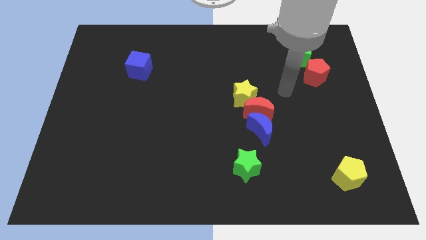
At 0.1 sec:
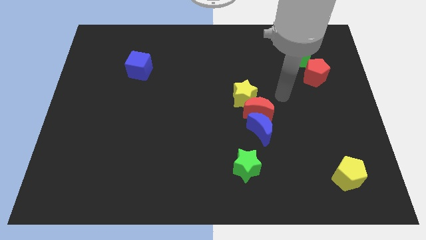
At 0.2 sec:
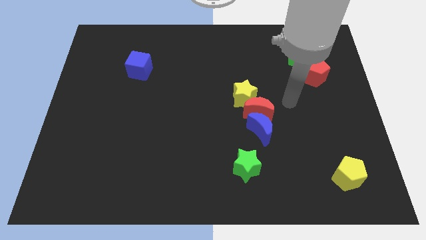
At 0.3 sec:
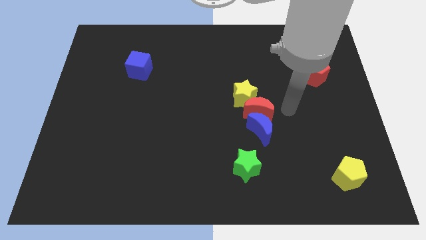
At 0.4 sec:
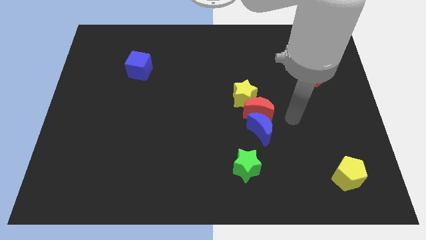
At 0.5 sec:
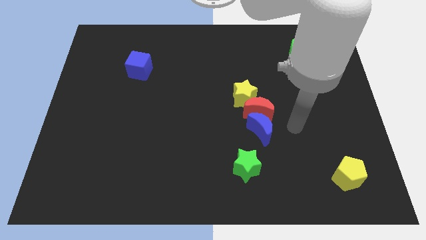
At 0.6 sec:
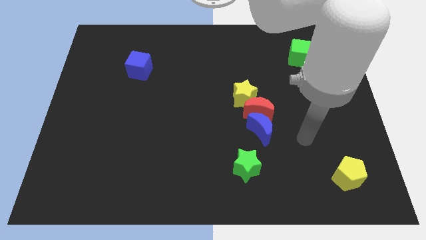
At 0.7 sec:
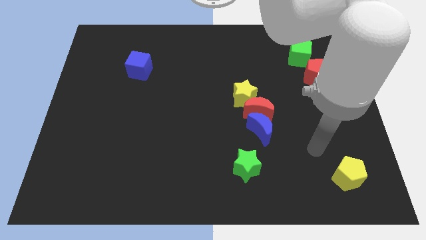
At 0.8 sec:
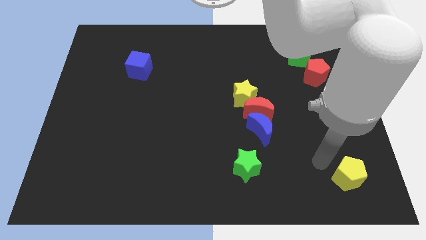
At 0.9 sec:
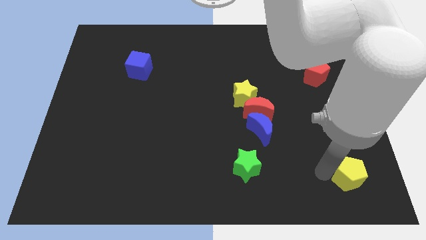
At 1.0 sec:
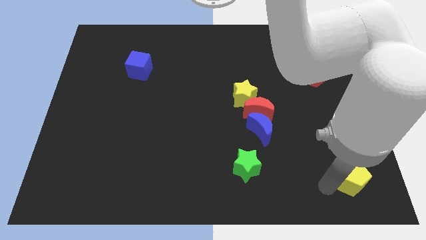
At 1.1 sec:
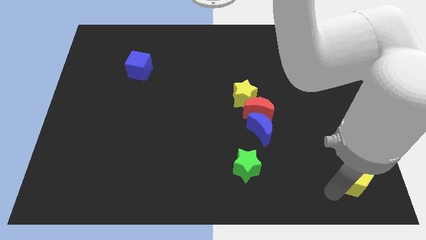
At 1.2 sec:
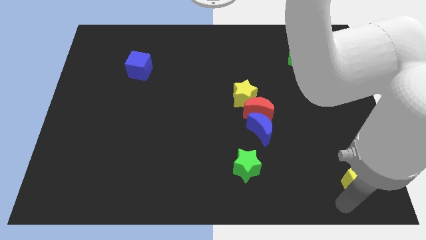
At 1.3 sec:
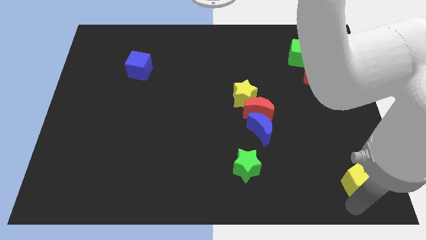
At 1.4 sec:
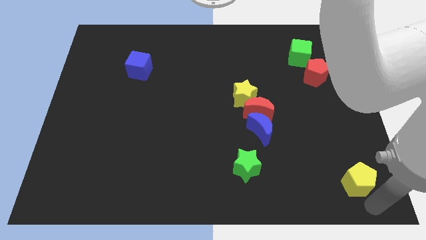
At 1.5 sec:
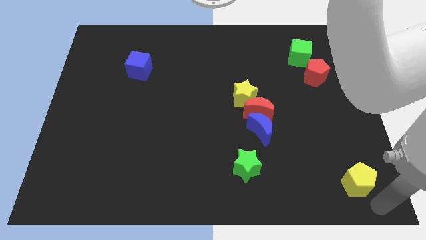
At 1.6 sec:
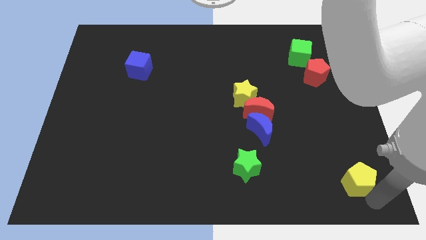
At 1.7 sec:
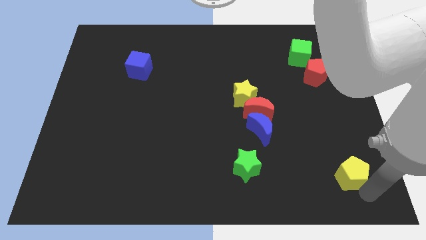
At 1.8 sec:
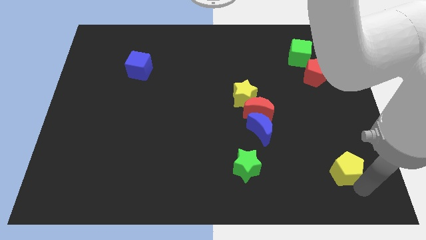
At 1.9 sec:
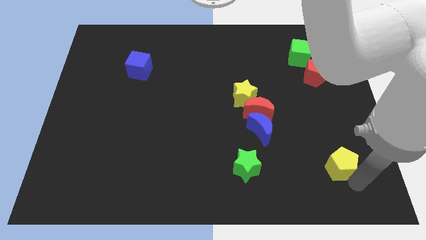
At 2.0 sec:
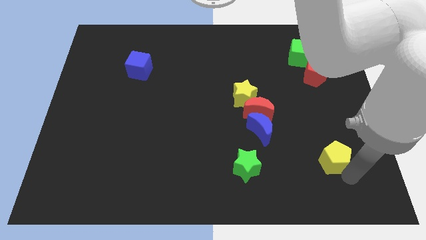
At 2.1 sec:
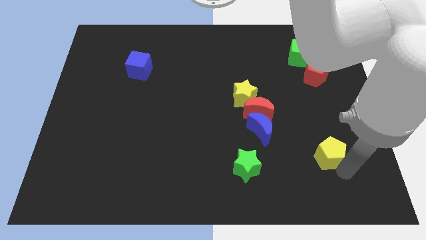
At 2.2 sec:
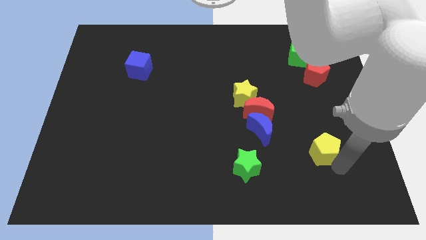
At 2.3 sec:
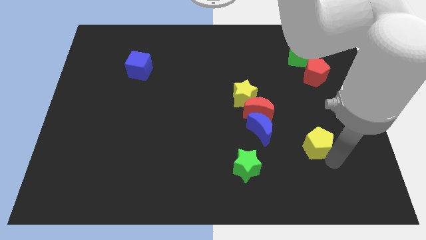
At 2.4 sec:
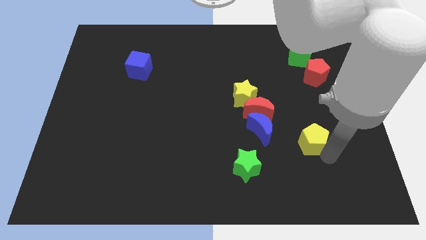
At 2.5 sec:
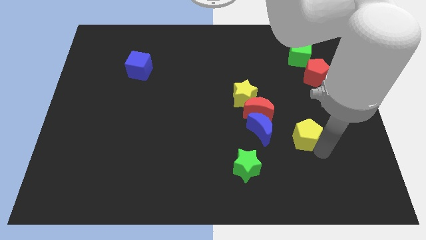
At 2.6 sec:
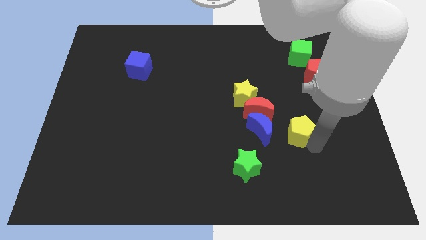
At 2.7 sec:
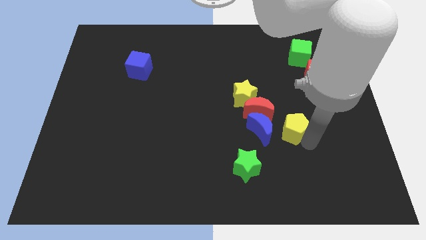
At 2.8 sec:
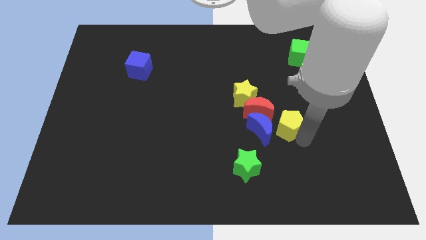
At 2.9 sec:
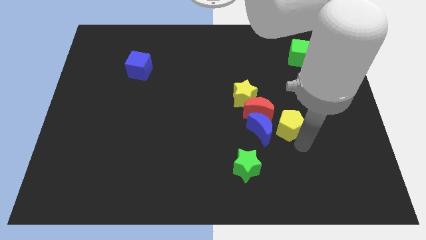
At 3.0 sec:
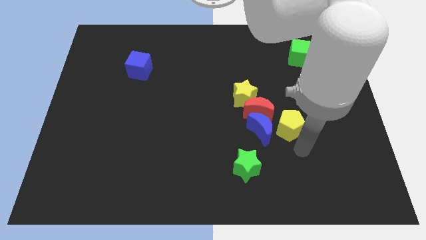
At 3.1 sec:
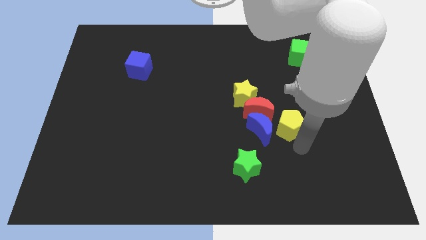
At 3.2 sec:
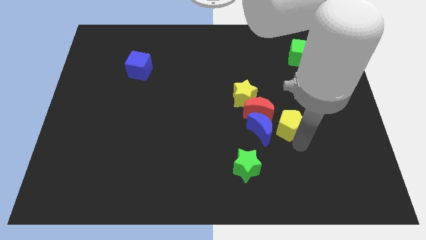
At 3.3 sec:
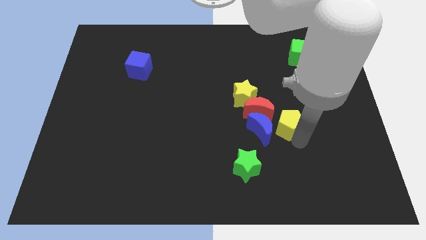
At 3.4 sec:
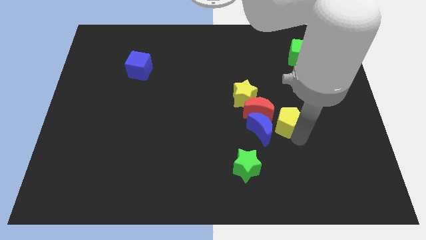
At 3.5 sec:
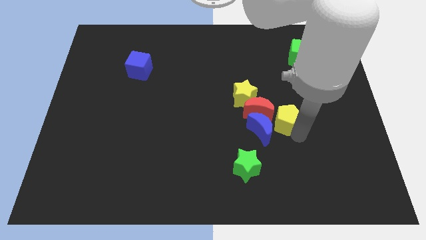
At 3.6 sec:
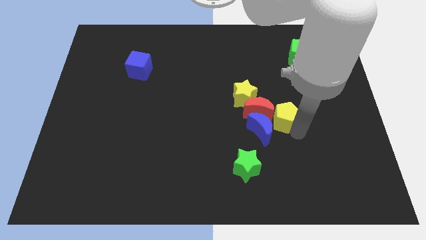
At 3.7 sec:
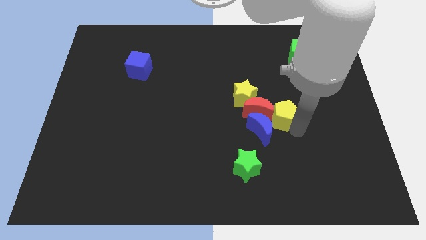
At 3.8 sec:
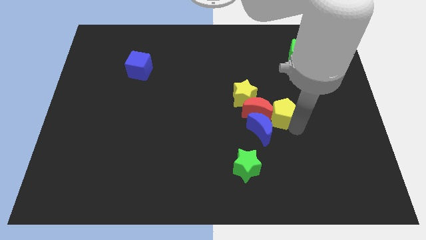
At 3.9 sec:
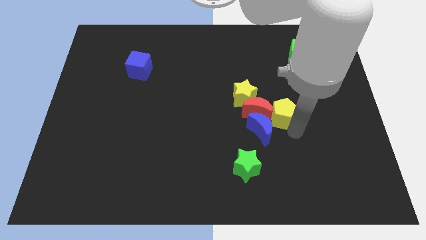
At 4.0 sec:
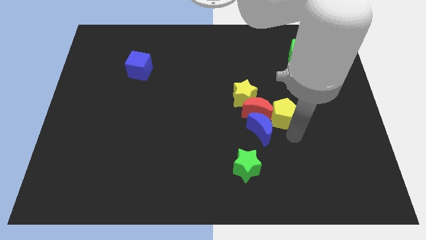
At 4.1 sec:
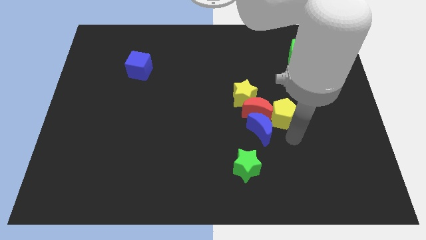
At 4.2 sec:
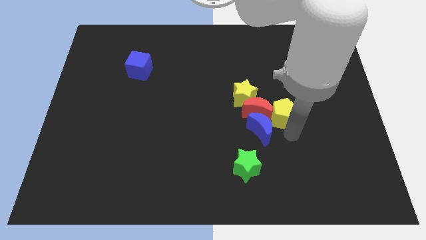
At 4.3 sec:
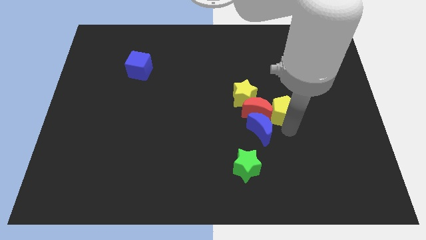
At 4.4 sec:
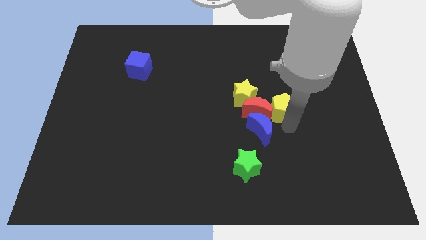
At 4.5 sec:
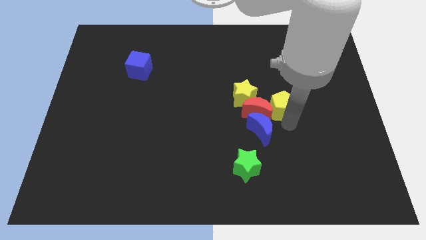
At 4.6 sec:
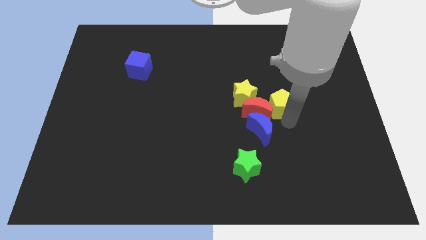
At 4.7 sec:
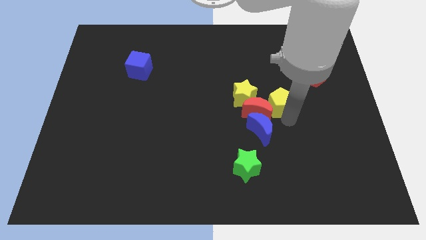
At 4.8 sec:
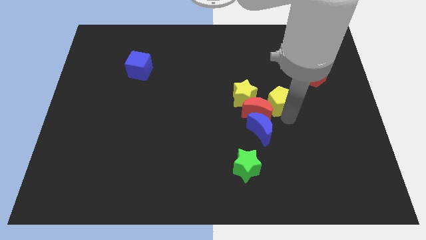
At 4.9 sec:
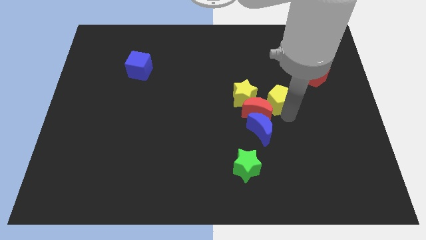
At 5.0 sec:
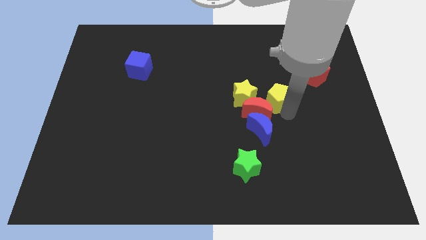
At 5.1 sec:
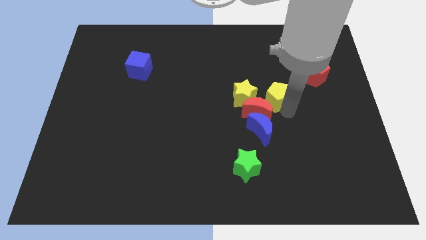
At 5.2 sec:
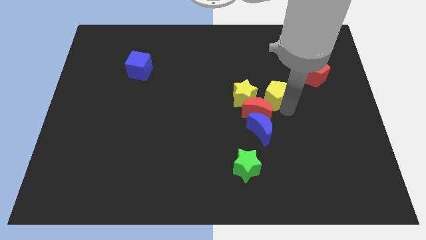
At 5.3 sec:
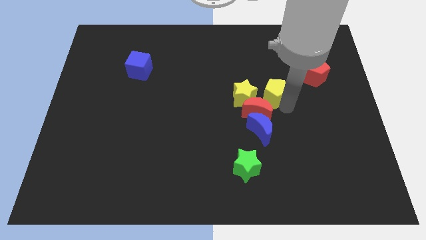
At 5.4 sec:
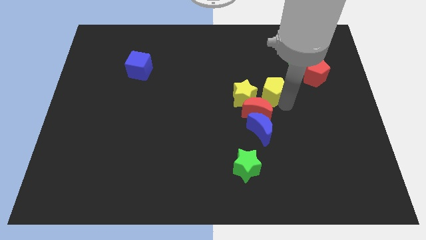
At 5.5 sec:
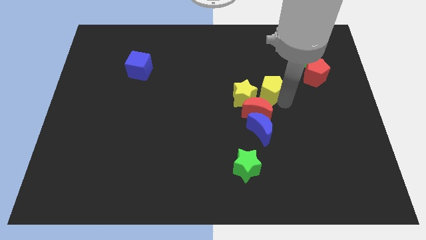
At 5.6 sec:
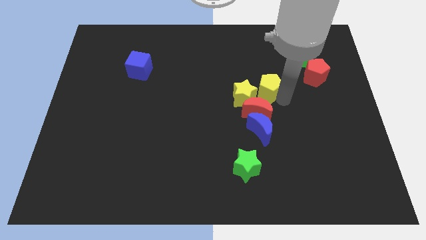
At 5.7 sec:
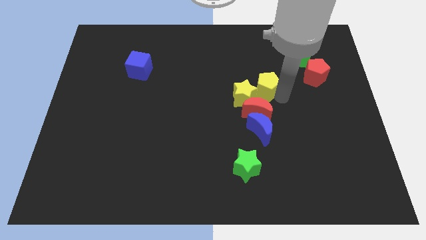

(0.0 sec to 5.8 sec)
slide the yellow pentagon close to the yellow star

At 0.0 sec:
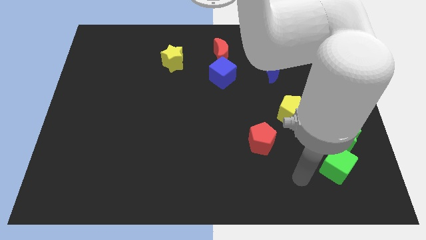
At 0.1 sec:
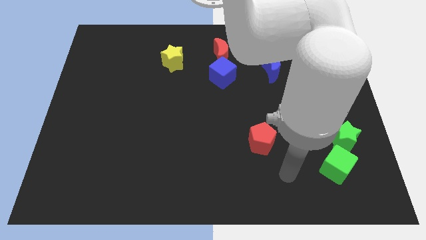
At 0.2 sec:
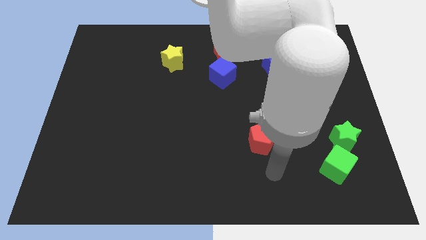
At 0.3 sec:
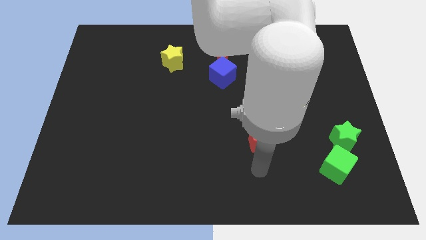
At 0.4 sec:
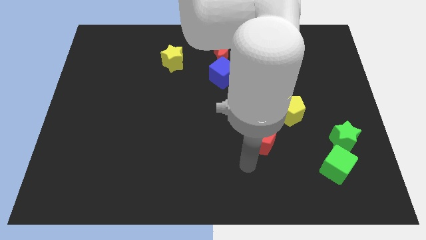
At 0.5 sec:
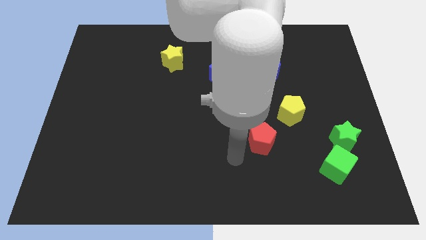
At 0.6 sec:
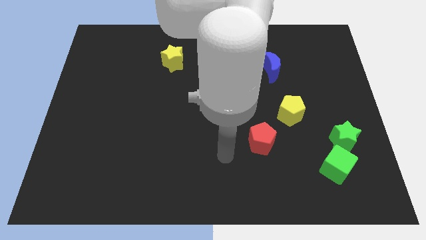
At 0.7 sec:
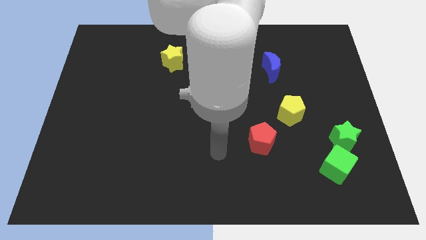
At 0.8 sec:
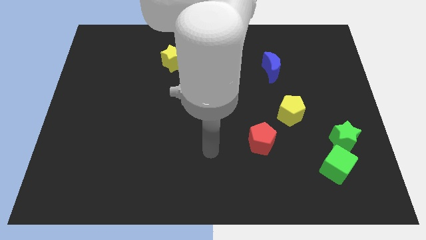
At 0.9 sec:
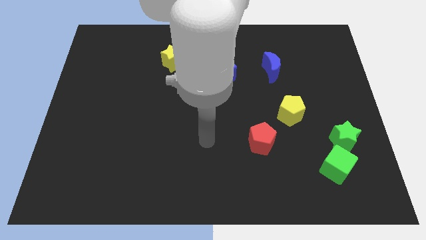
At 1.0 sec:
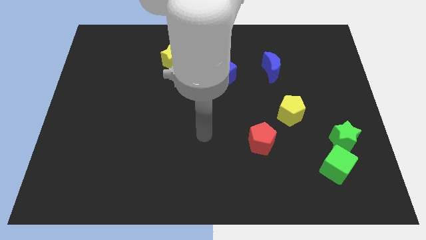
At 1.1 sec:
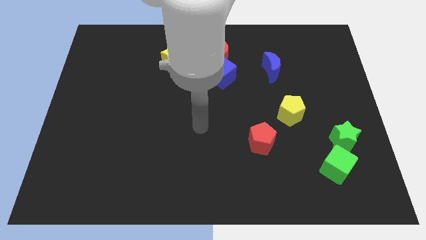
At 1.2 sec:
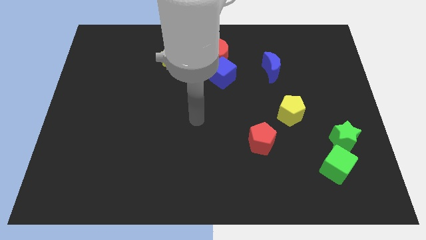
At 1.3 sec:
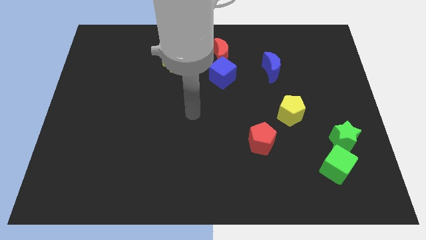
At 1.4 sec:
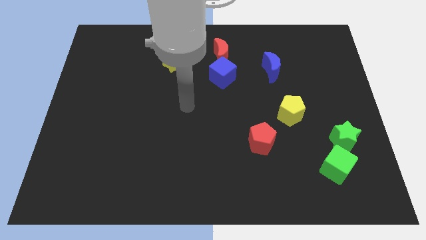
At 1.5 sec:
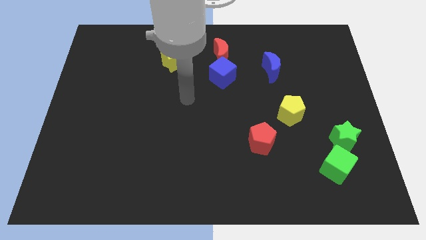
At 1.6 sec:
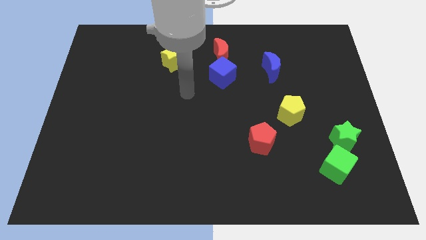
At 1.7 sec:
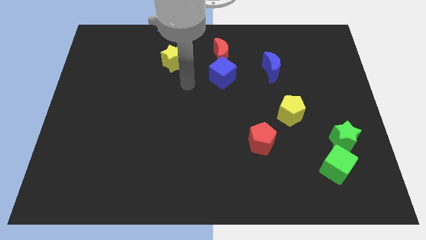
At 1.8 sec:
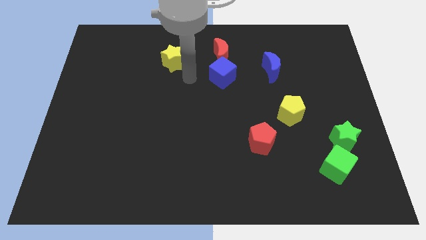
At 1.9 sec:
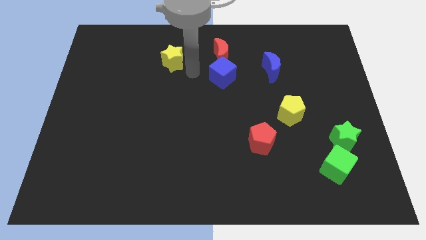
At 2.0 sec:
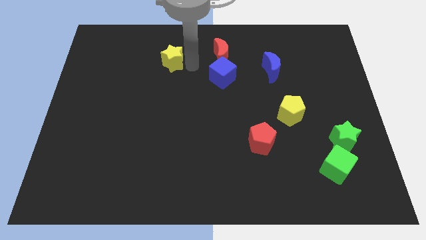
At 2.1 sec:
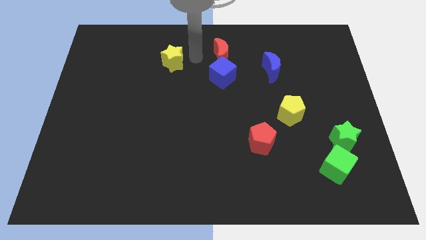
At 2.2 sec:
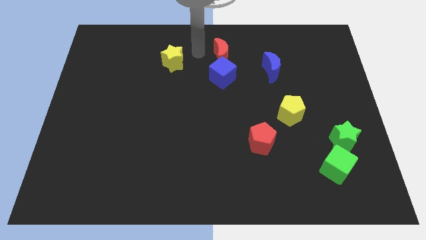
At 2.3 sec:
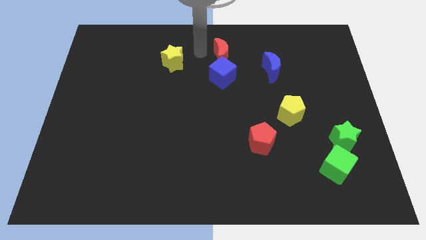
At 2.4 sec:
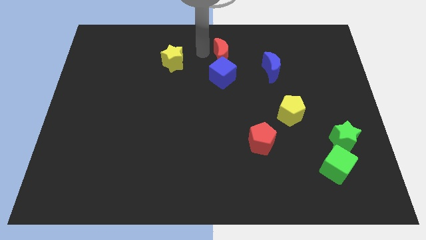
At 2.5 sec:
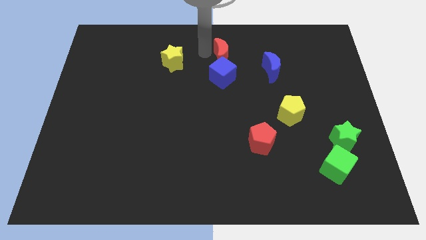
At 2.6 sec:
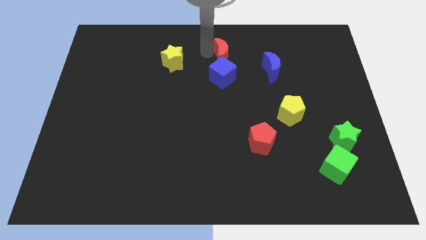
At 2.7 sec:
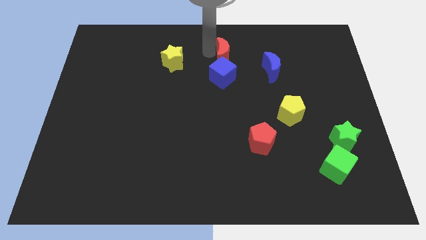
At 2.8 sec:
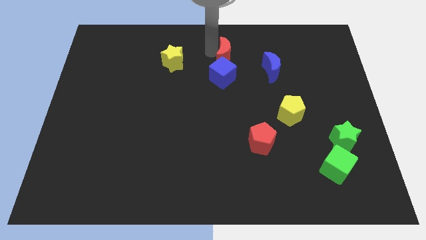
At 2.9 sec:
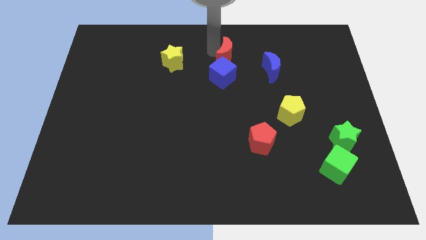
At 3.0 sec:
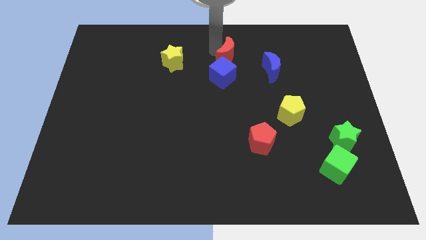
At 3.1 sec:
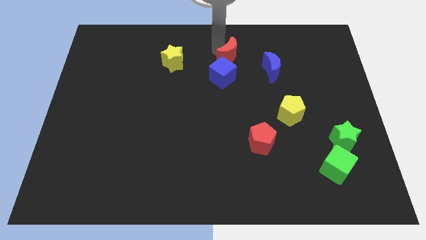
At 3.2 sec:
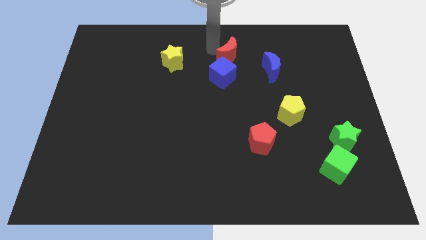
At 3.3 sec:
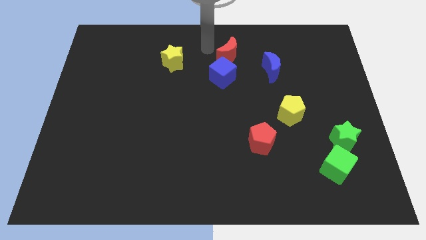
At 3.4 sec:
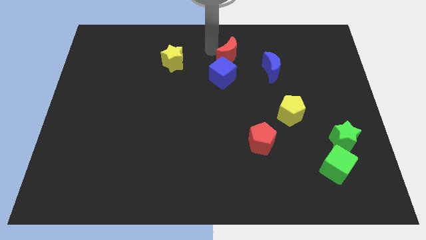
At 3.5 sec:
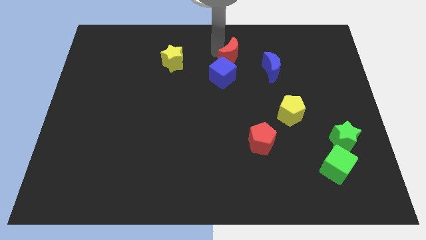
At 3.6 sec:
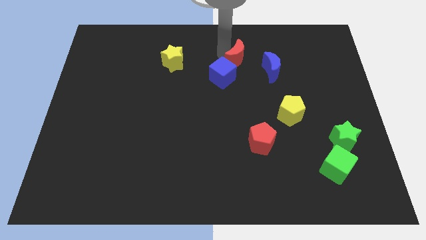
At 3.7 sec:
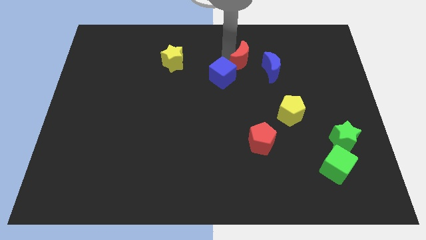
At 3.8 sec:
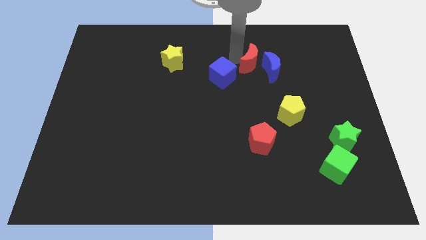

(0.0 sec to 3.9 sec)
push the red moon next to the blue moon
